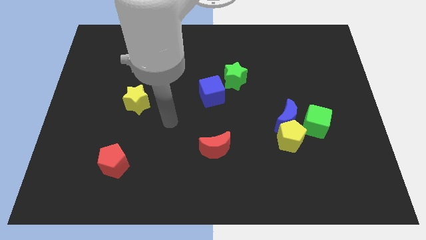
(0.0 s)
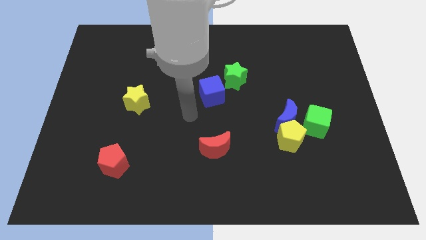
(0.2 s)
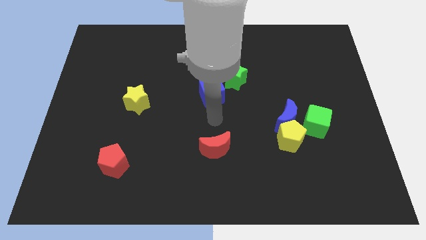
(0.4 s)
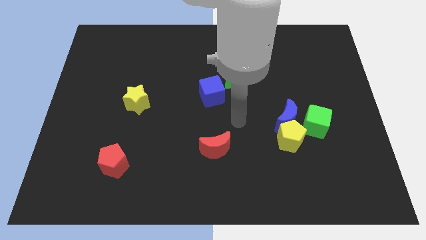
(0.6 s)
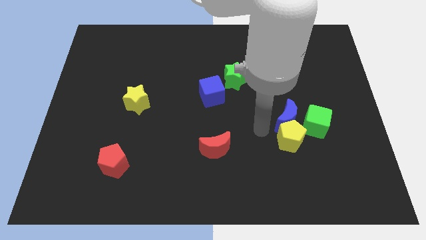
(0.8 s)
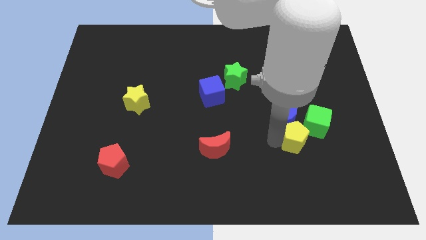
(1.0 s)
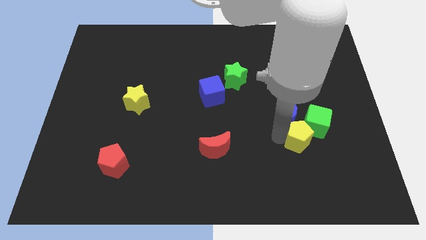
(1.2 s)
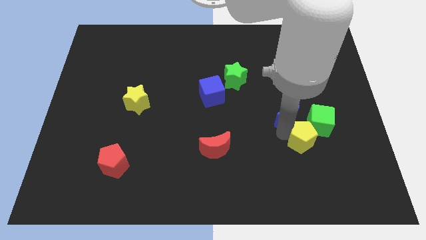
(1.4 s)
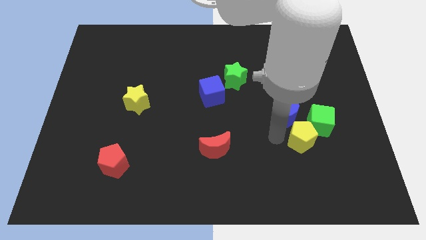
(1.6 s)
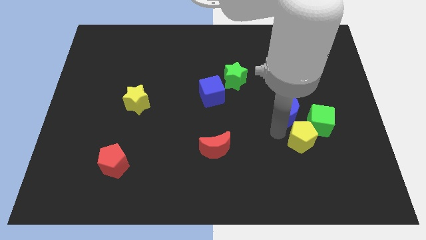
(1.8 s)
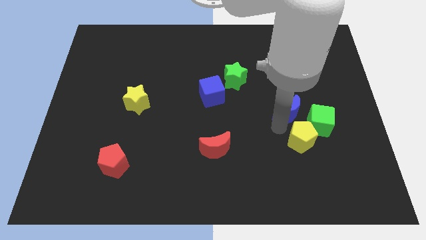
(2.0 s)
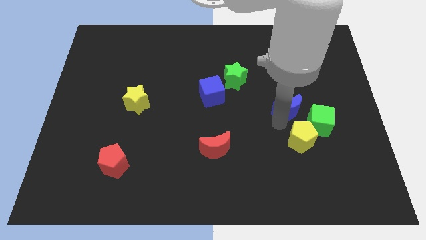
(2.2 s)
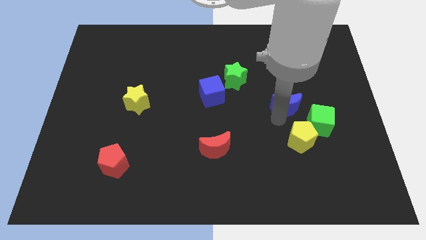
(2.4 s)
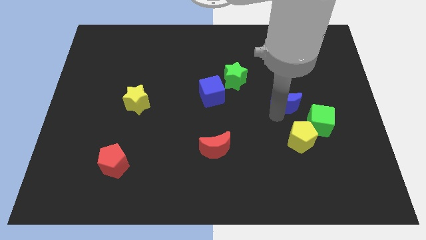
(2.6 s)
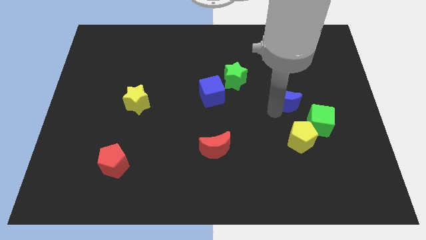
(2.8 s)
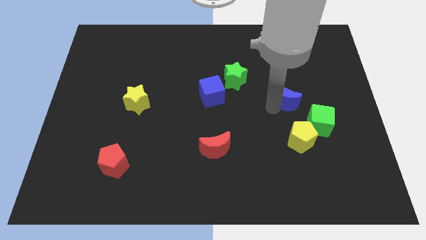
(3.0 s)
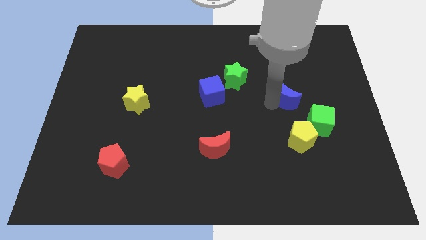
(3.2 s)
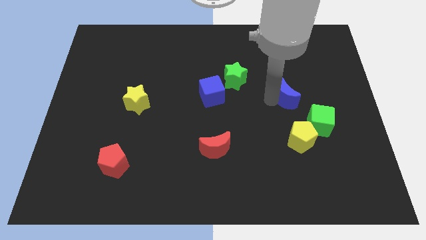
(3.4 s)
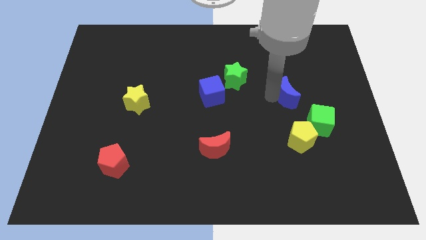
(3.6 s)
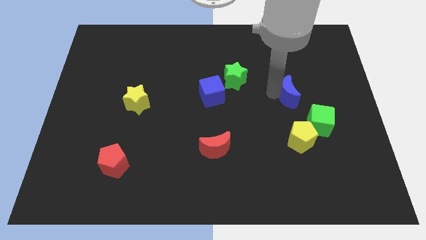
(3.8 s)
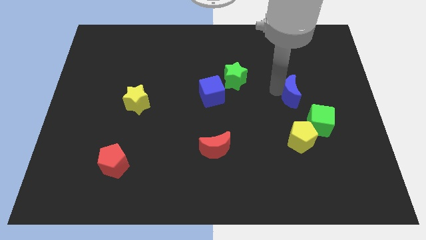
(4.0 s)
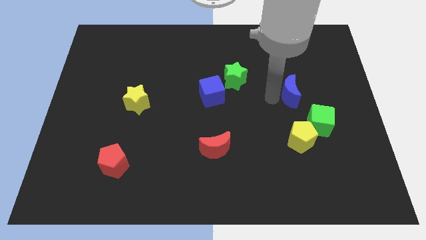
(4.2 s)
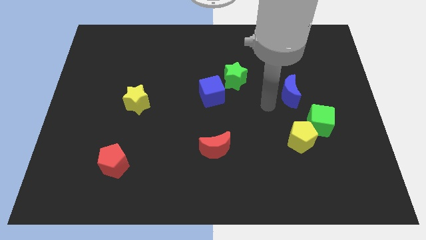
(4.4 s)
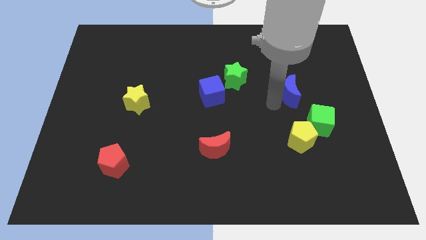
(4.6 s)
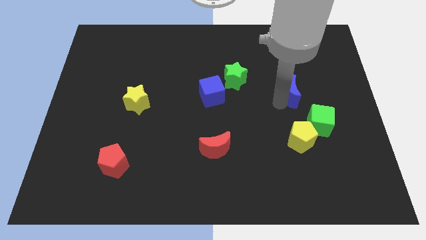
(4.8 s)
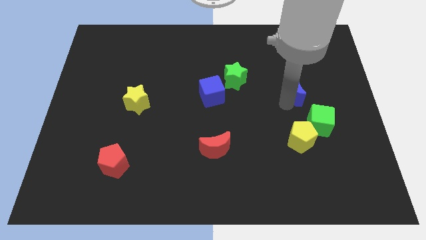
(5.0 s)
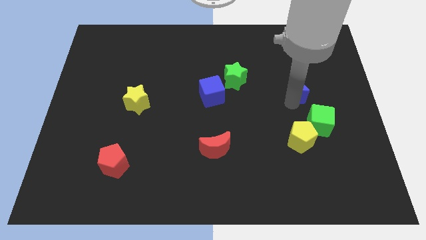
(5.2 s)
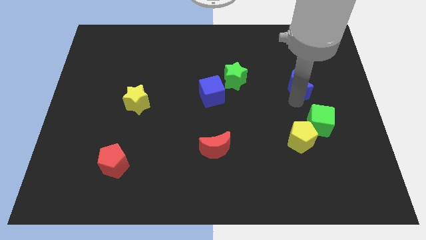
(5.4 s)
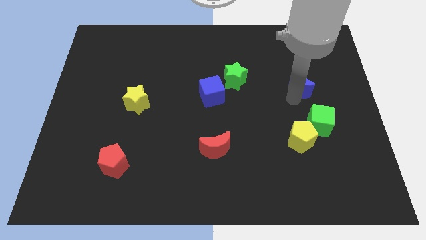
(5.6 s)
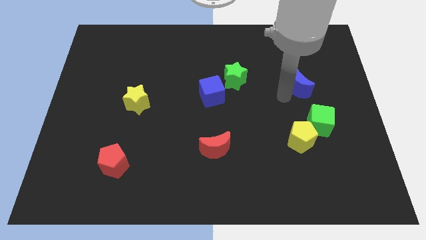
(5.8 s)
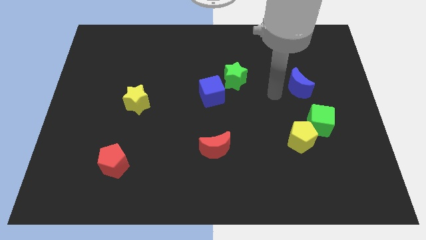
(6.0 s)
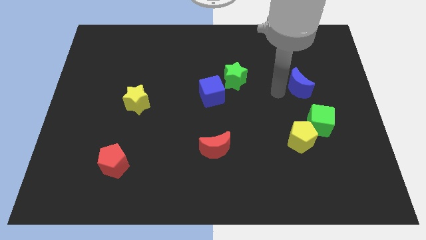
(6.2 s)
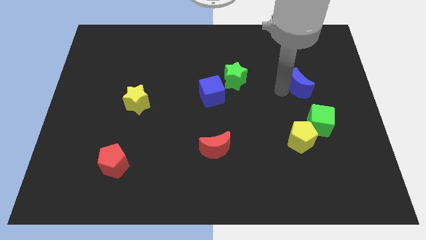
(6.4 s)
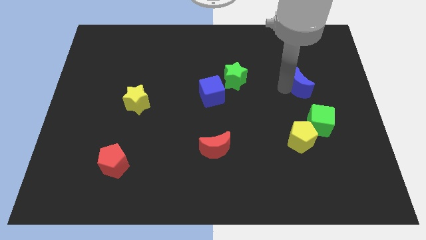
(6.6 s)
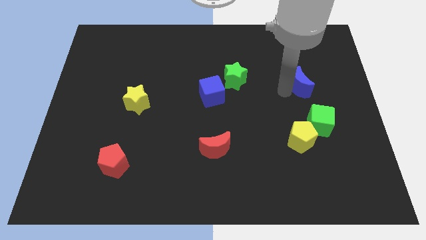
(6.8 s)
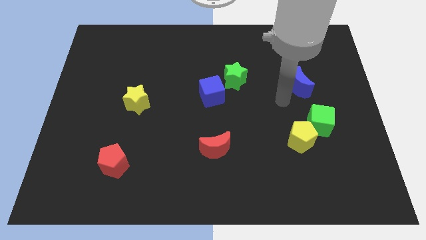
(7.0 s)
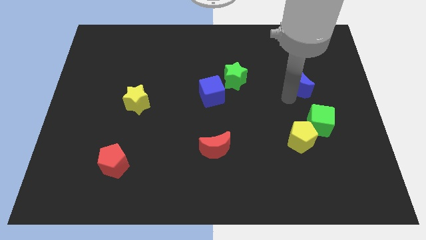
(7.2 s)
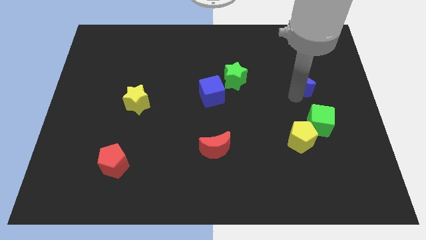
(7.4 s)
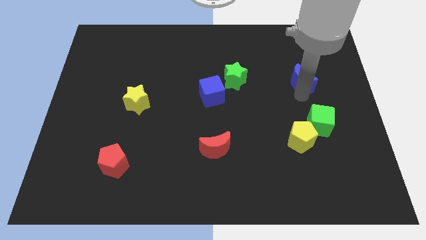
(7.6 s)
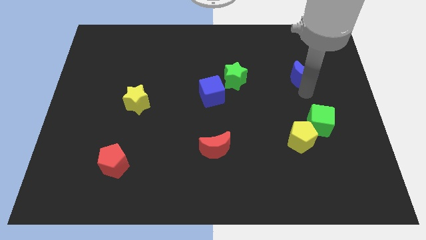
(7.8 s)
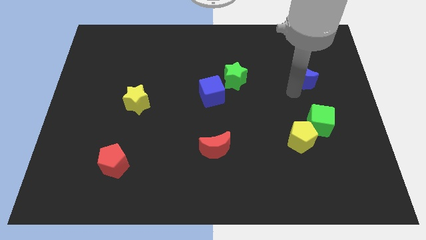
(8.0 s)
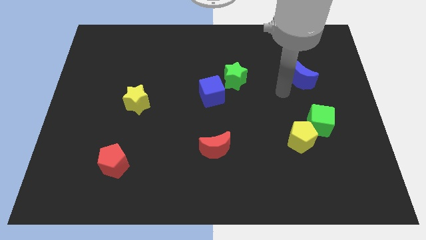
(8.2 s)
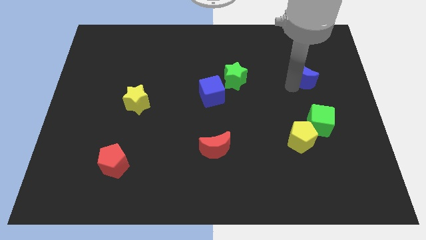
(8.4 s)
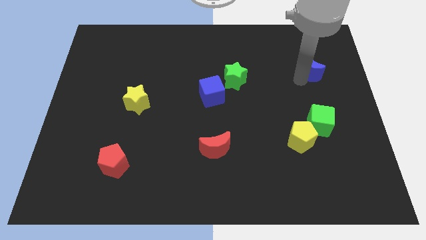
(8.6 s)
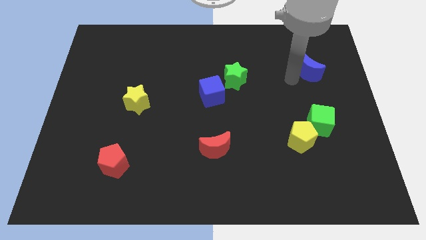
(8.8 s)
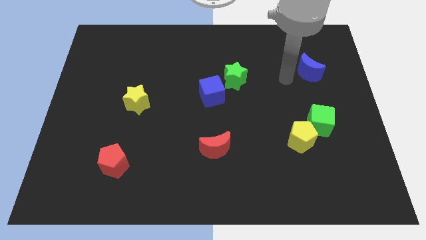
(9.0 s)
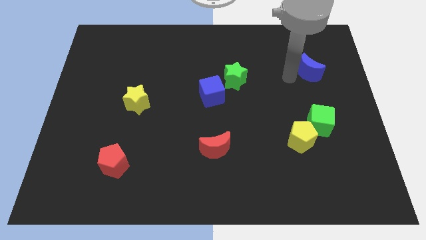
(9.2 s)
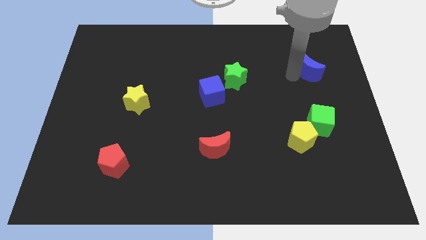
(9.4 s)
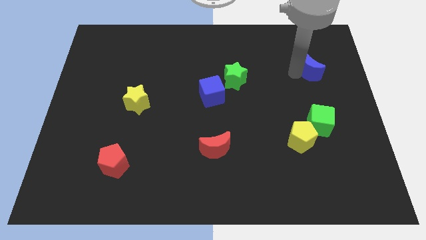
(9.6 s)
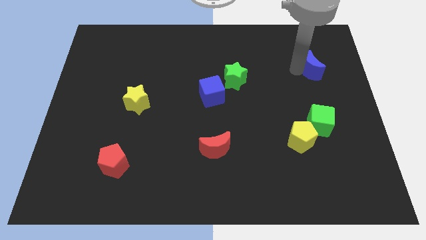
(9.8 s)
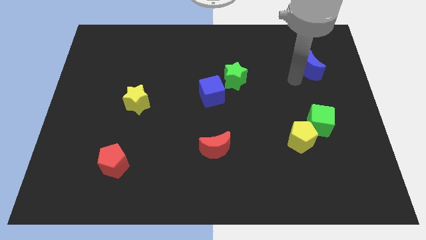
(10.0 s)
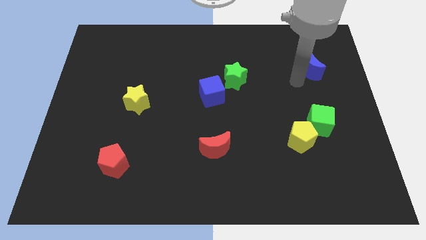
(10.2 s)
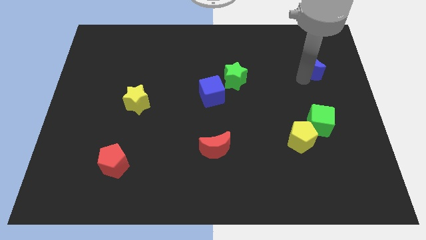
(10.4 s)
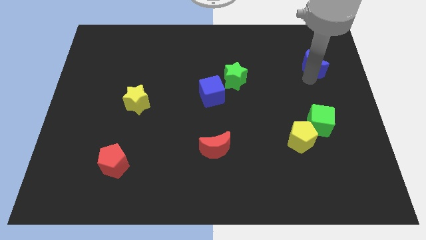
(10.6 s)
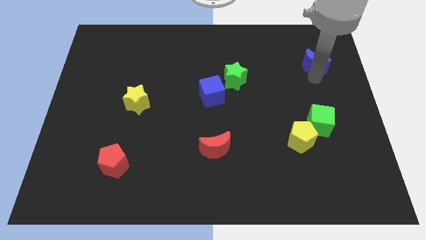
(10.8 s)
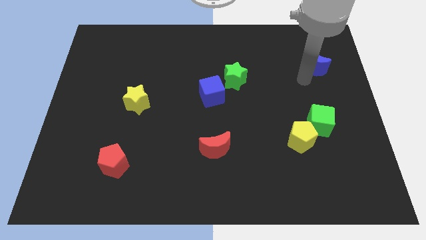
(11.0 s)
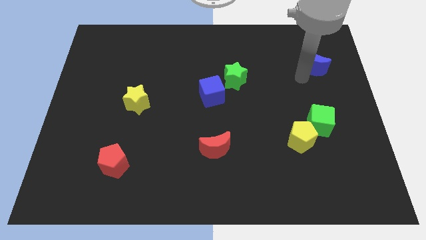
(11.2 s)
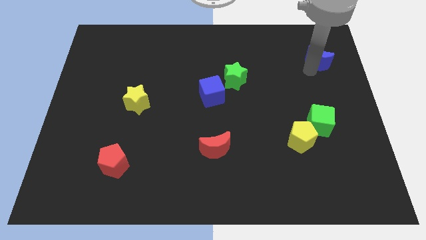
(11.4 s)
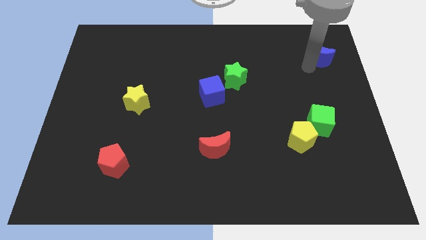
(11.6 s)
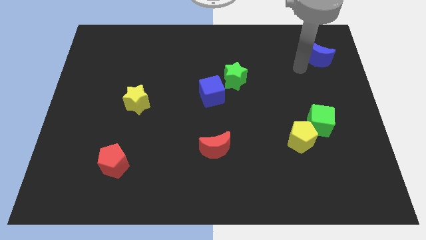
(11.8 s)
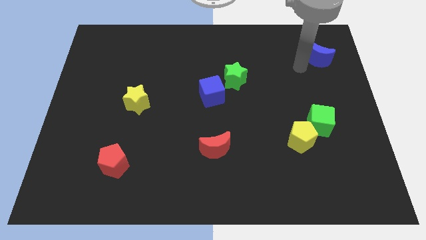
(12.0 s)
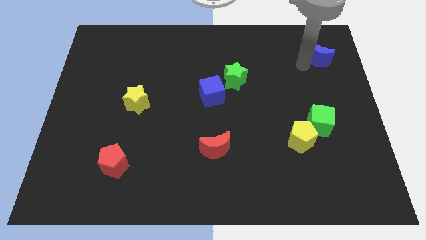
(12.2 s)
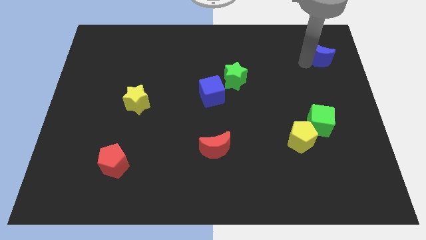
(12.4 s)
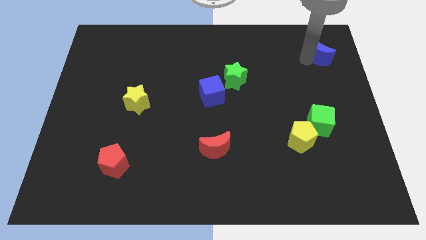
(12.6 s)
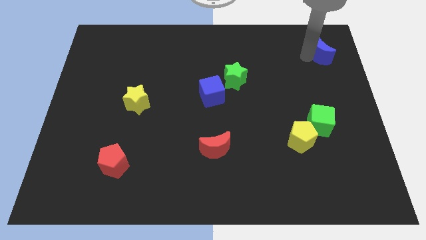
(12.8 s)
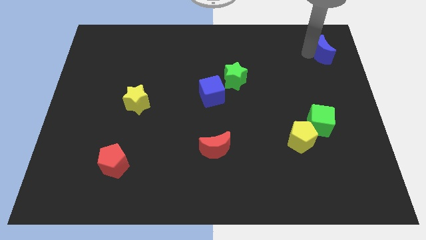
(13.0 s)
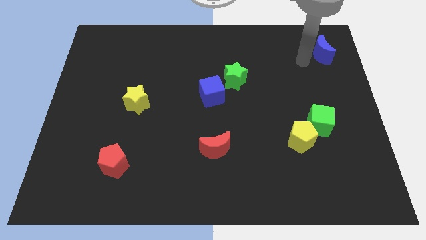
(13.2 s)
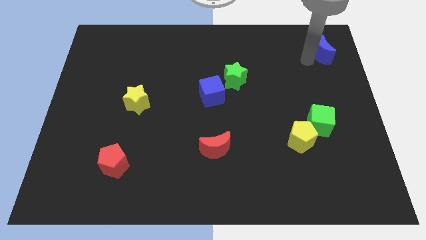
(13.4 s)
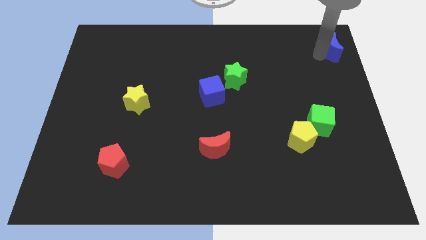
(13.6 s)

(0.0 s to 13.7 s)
move the blue moon to the top right

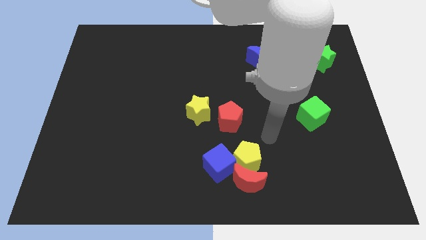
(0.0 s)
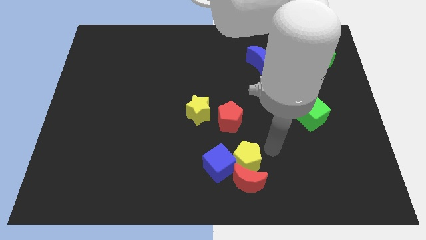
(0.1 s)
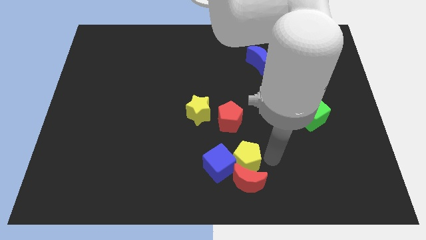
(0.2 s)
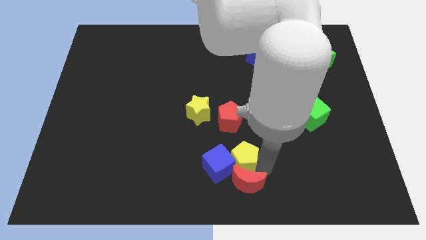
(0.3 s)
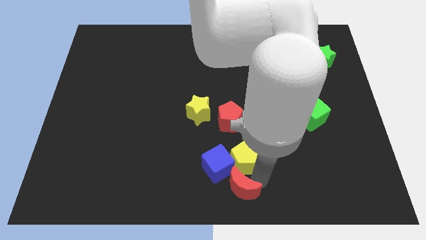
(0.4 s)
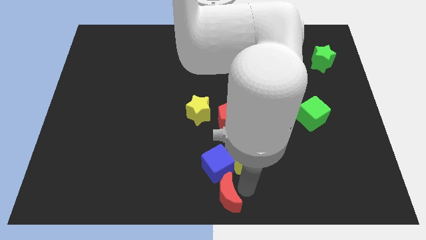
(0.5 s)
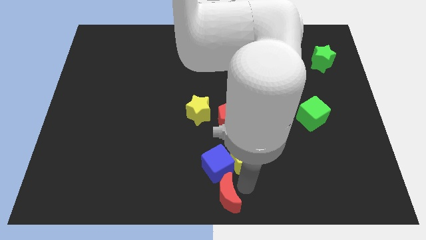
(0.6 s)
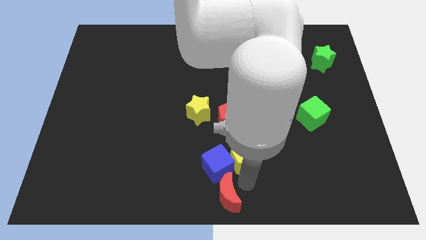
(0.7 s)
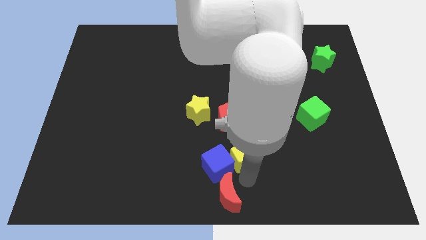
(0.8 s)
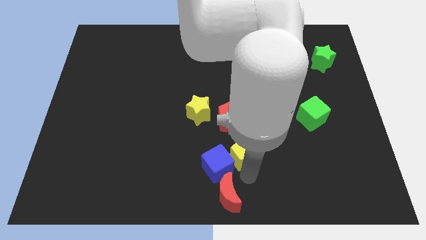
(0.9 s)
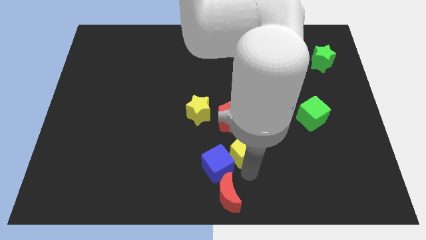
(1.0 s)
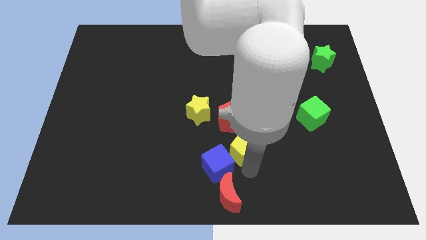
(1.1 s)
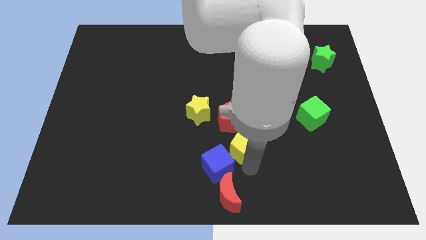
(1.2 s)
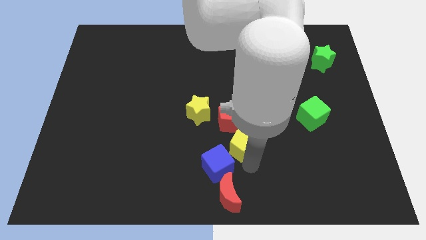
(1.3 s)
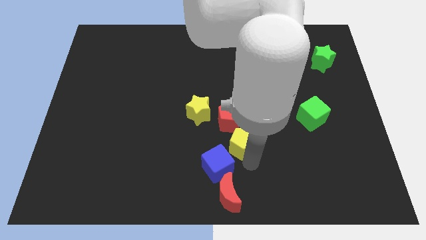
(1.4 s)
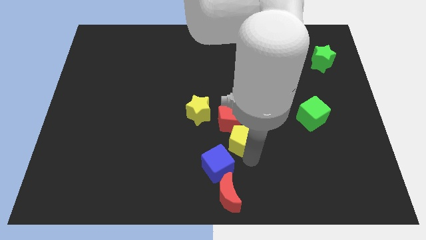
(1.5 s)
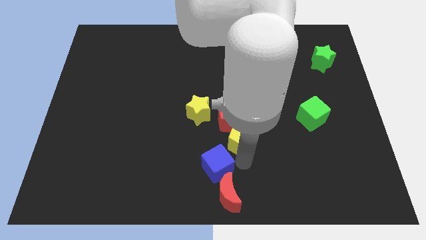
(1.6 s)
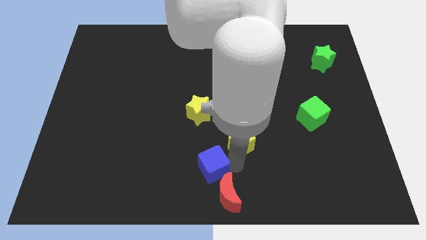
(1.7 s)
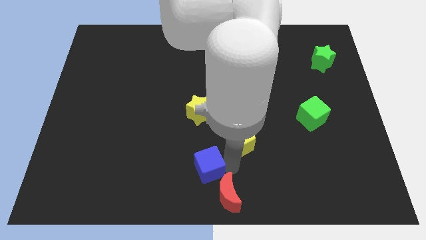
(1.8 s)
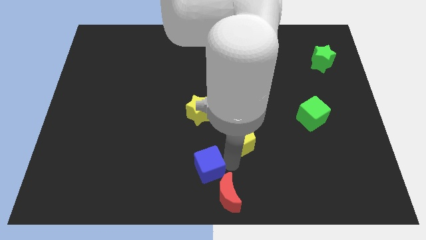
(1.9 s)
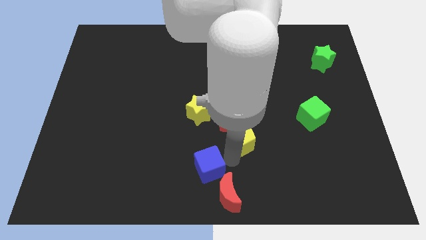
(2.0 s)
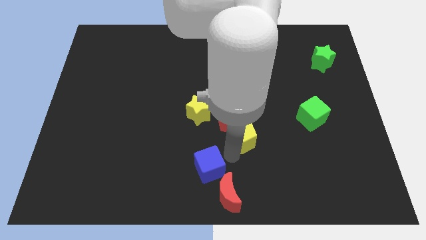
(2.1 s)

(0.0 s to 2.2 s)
put the yellow pentagon to the center
